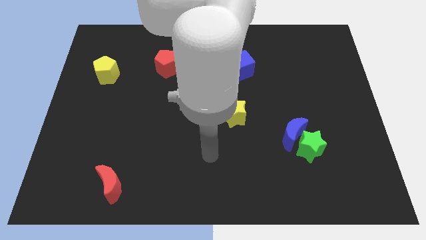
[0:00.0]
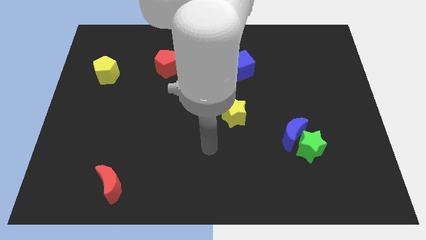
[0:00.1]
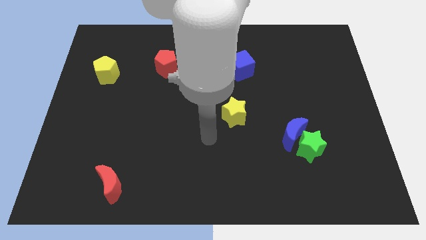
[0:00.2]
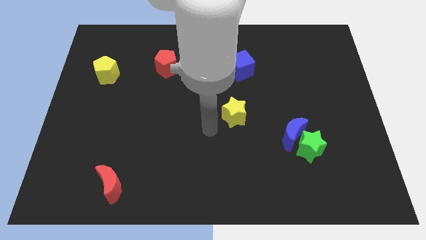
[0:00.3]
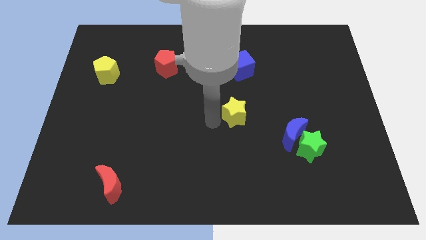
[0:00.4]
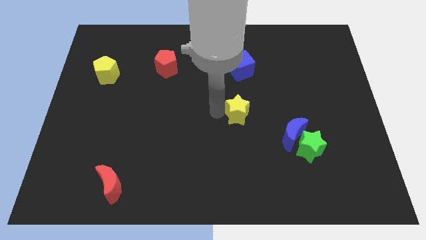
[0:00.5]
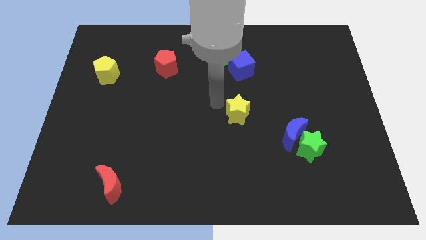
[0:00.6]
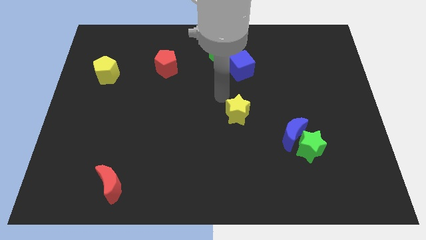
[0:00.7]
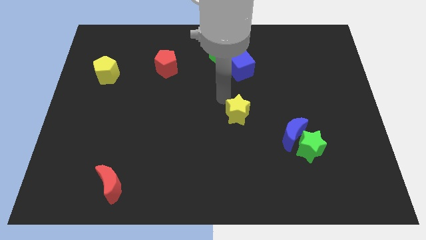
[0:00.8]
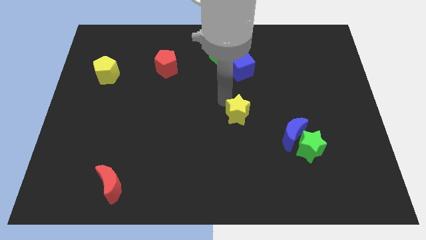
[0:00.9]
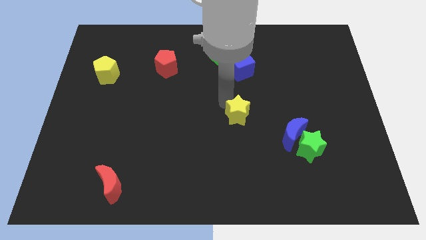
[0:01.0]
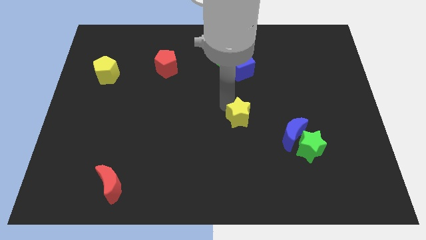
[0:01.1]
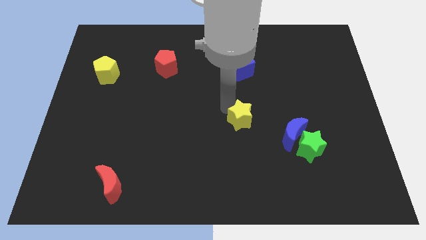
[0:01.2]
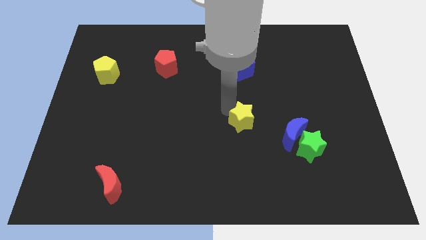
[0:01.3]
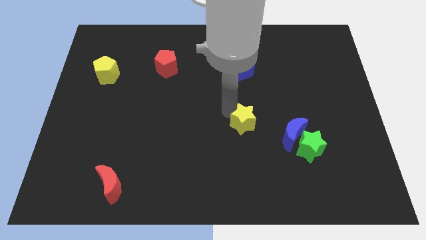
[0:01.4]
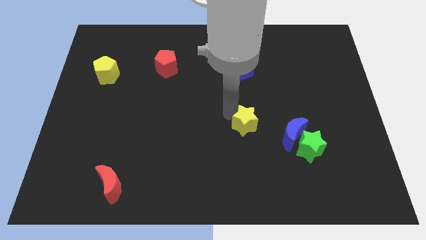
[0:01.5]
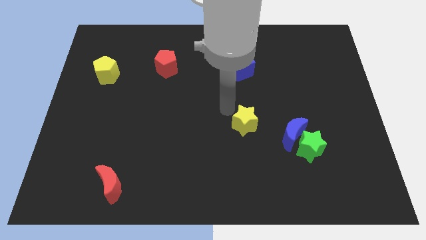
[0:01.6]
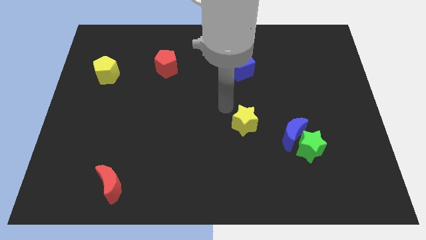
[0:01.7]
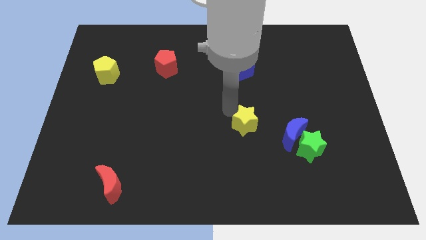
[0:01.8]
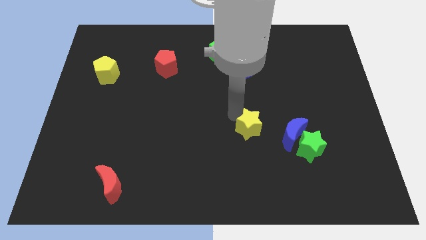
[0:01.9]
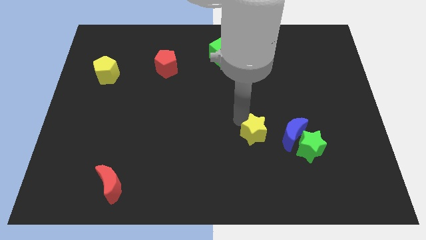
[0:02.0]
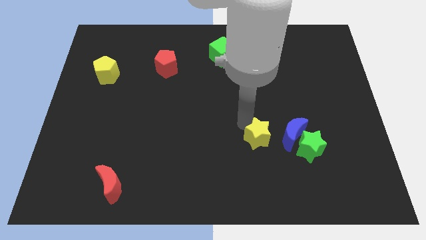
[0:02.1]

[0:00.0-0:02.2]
slightly slide the yellow star down and then to the right

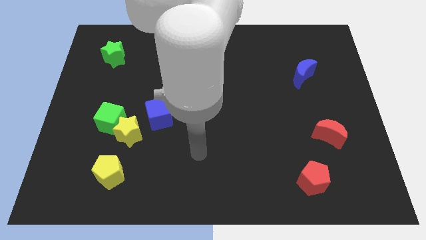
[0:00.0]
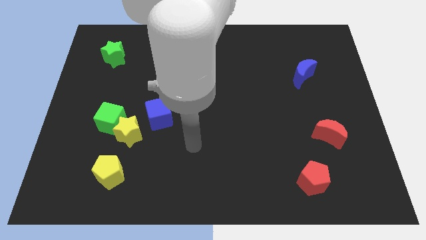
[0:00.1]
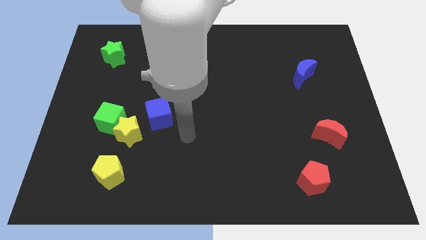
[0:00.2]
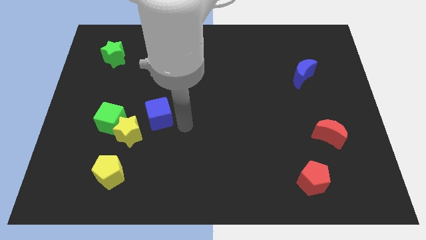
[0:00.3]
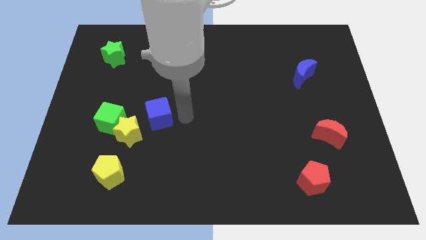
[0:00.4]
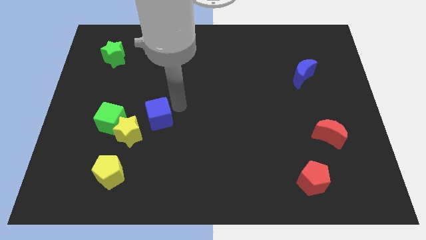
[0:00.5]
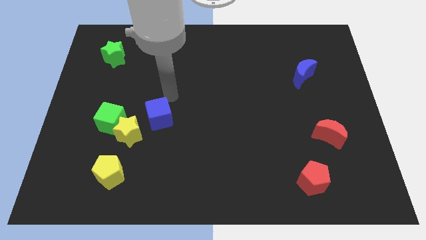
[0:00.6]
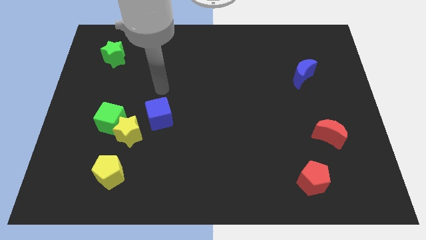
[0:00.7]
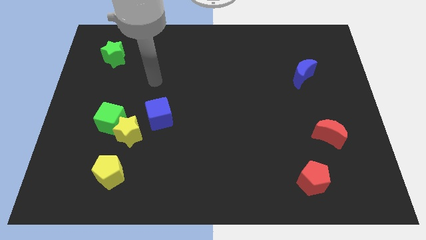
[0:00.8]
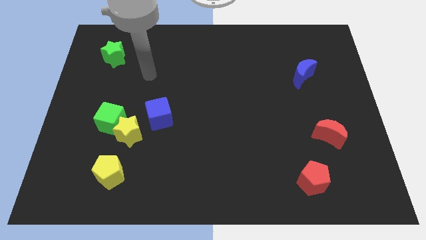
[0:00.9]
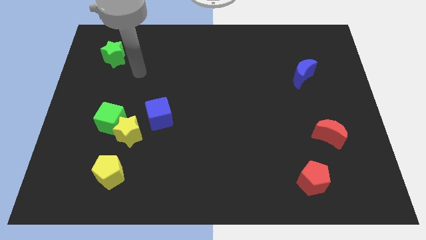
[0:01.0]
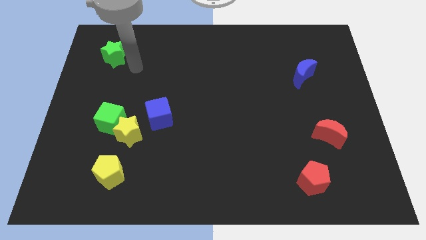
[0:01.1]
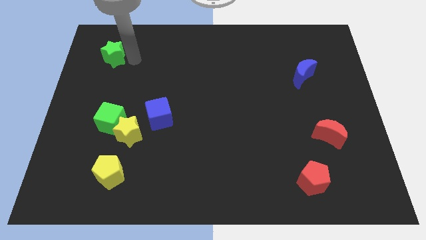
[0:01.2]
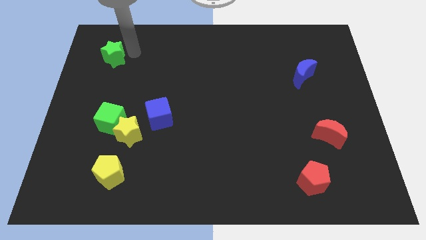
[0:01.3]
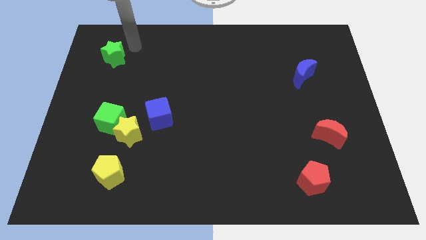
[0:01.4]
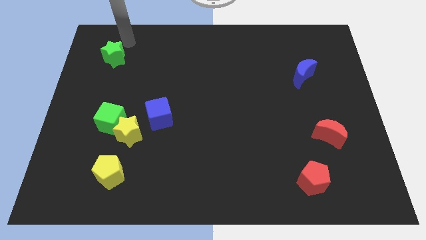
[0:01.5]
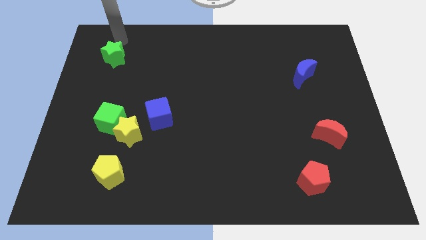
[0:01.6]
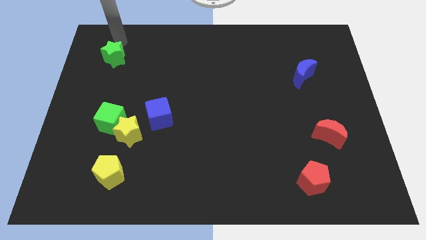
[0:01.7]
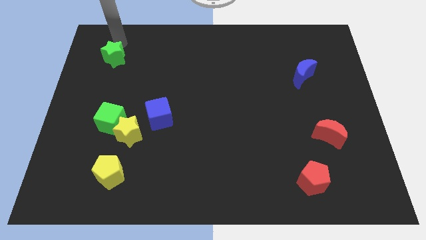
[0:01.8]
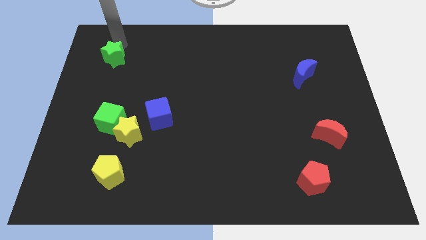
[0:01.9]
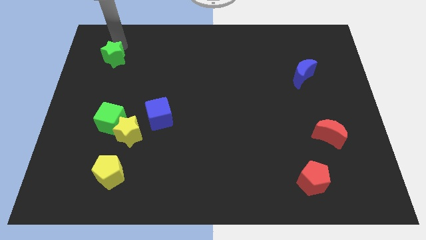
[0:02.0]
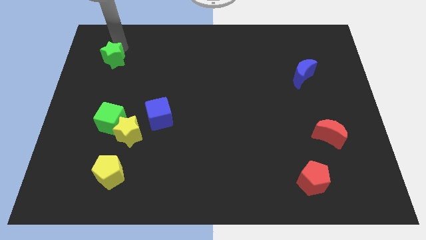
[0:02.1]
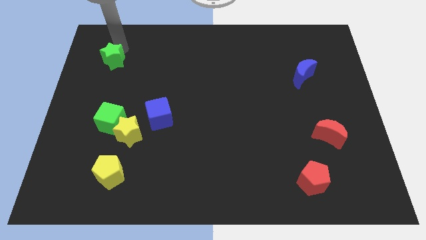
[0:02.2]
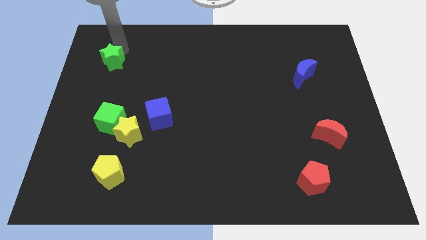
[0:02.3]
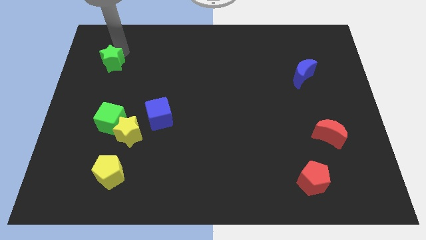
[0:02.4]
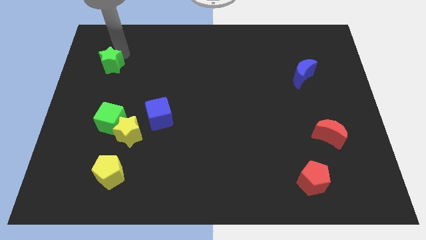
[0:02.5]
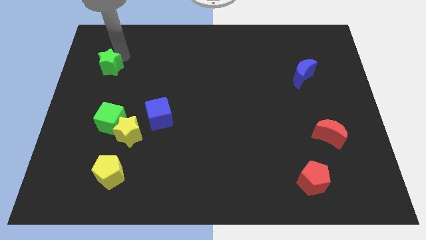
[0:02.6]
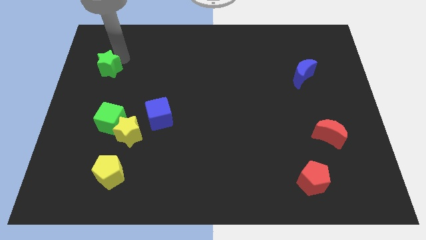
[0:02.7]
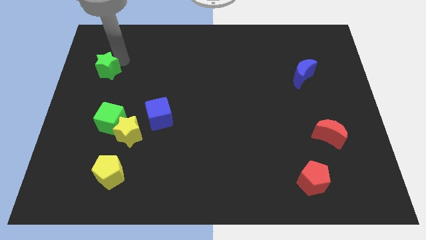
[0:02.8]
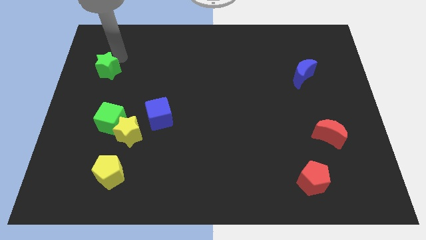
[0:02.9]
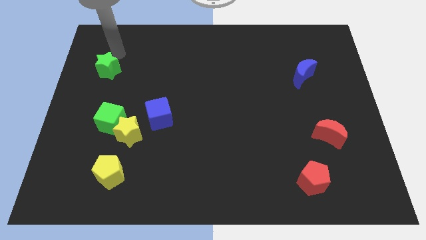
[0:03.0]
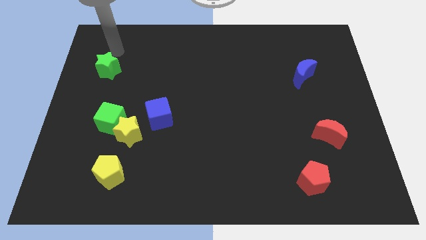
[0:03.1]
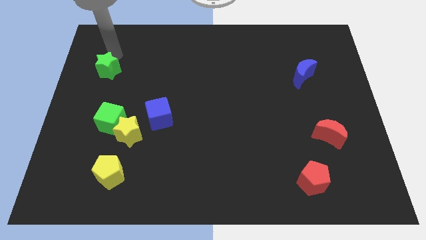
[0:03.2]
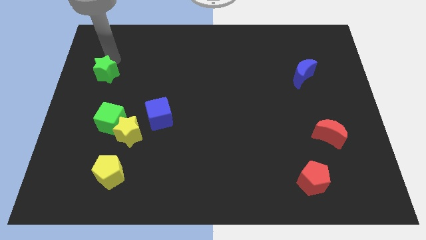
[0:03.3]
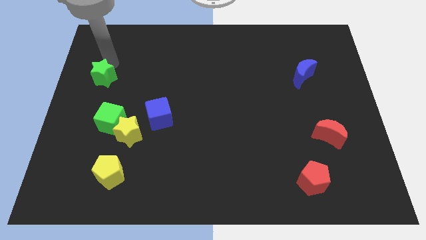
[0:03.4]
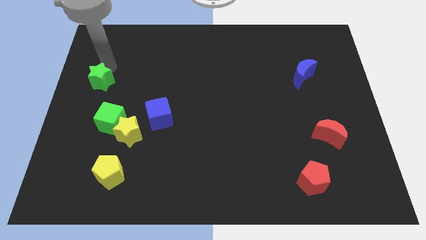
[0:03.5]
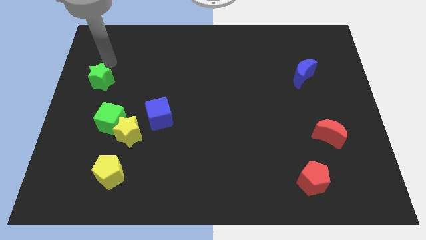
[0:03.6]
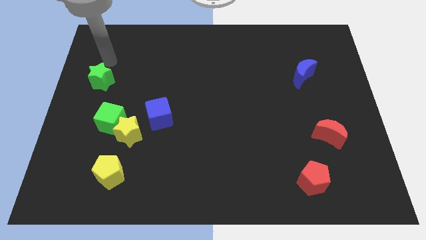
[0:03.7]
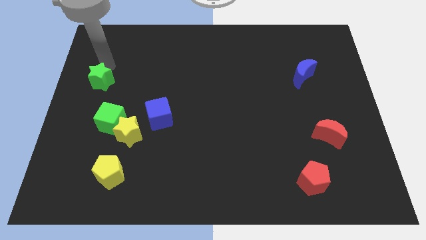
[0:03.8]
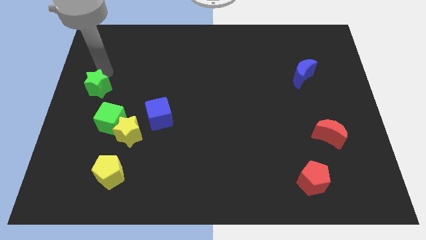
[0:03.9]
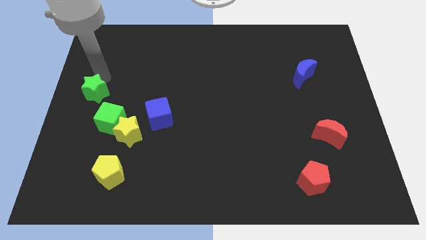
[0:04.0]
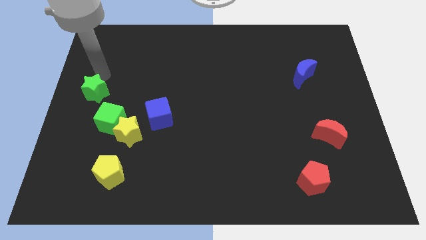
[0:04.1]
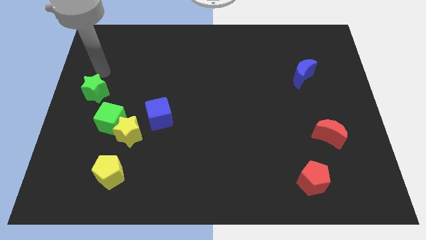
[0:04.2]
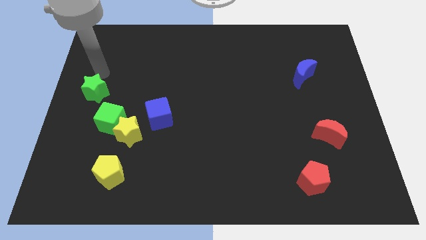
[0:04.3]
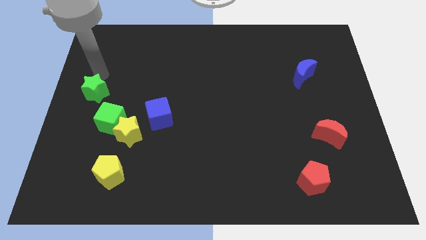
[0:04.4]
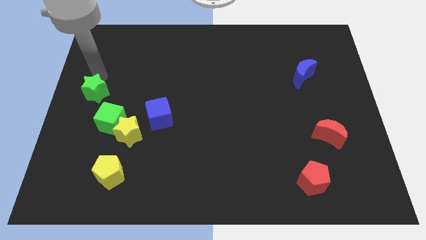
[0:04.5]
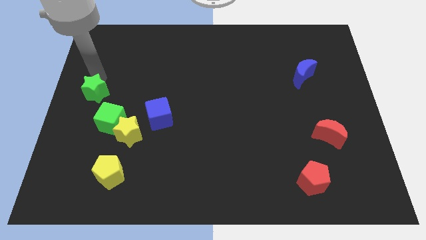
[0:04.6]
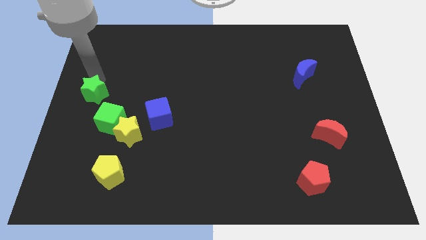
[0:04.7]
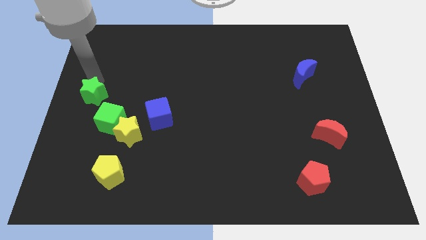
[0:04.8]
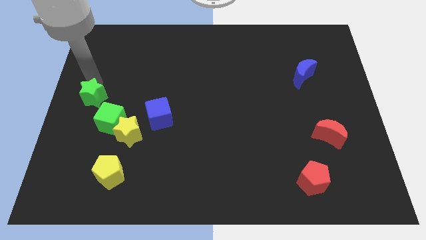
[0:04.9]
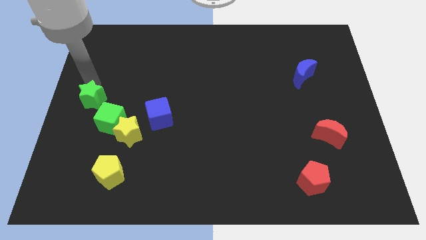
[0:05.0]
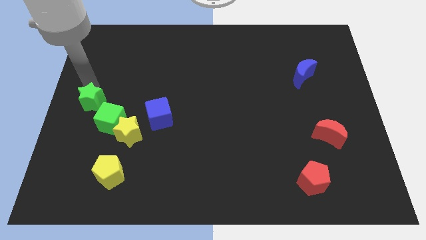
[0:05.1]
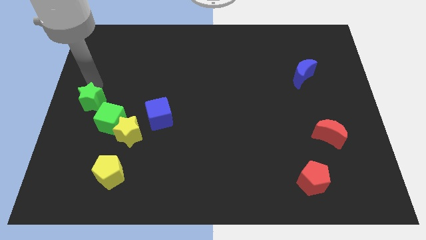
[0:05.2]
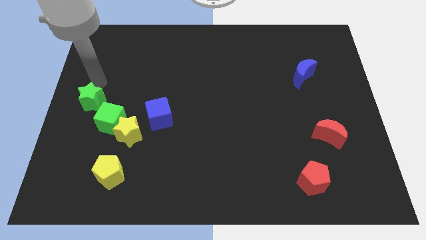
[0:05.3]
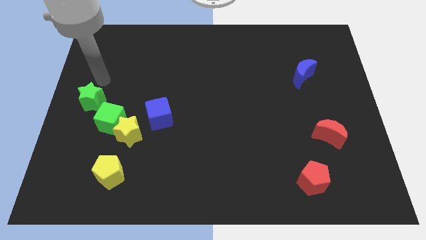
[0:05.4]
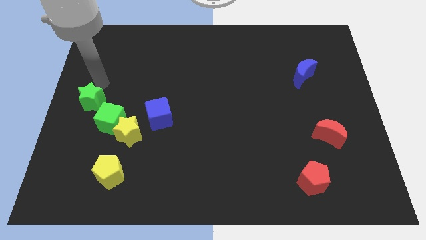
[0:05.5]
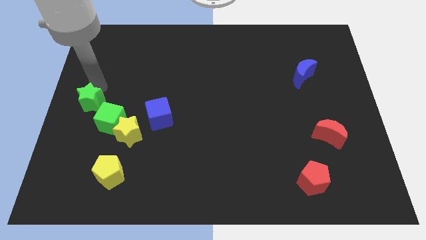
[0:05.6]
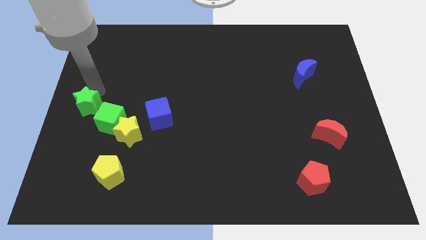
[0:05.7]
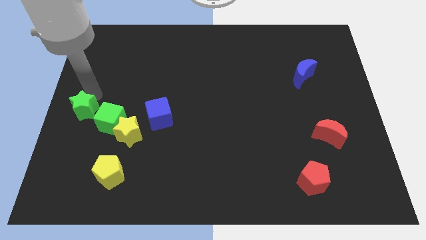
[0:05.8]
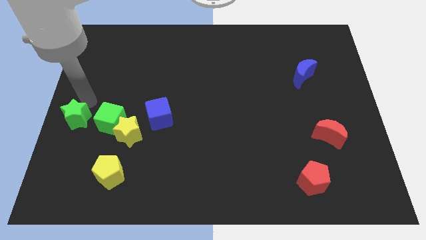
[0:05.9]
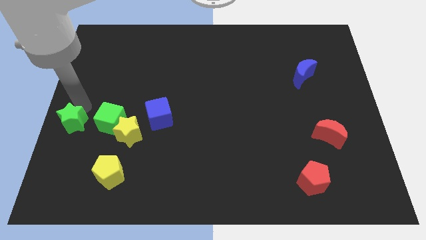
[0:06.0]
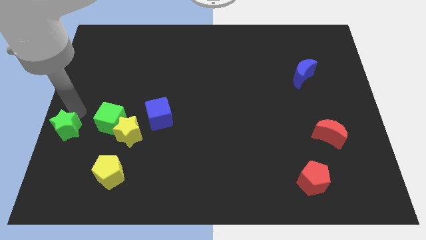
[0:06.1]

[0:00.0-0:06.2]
push the green star downwards
